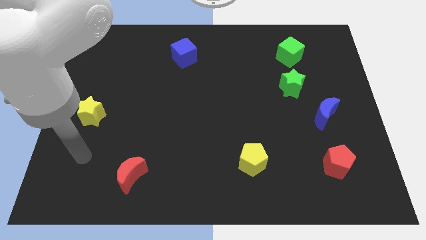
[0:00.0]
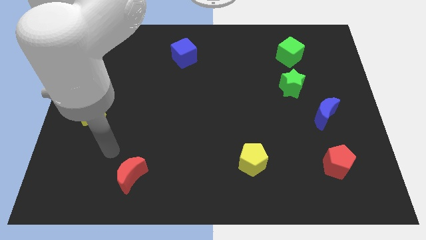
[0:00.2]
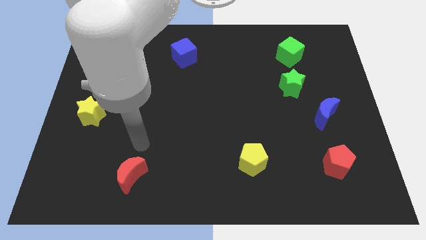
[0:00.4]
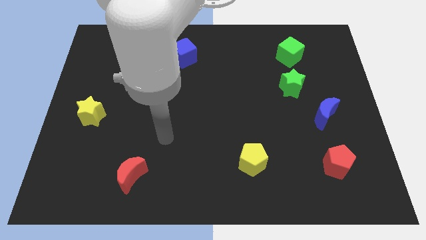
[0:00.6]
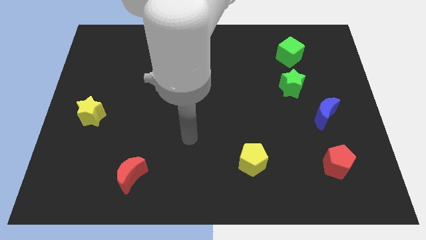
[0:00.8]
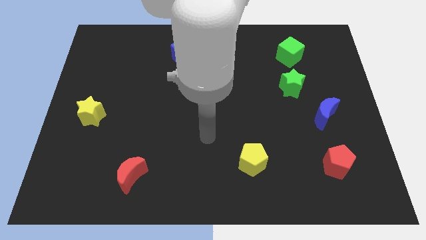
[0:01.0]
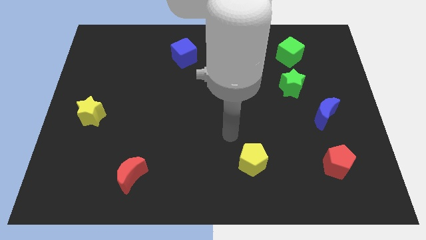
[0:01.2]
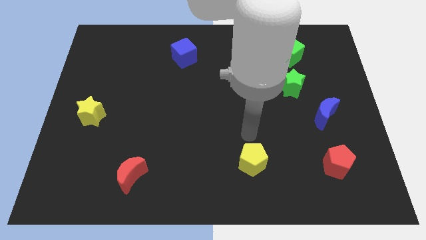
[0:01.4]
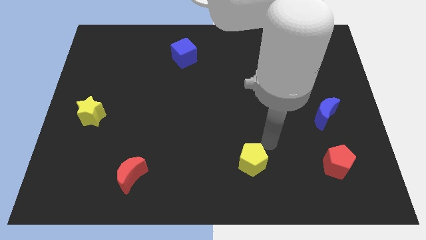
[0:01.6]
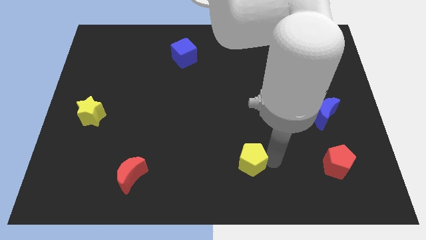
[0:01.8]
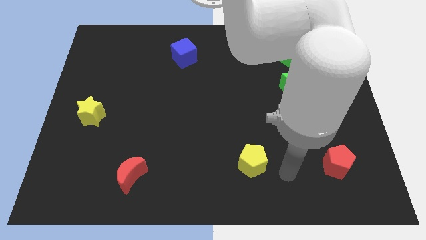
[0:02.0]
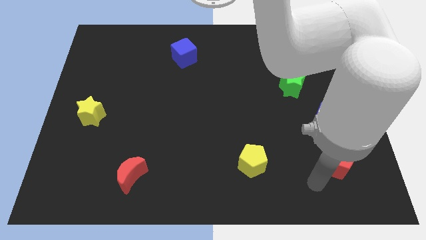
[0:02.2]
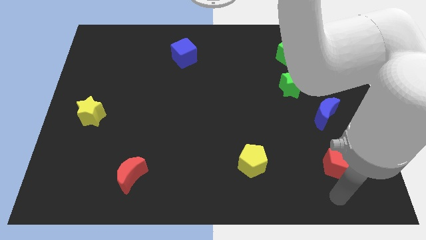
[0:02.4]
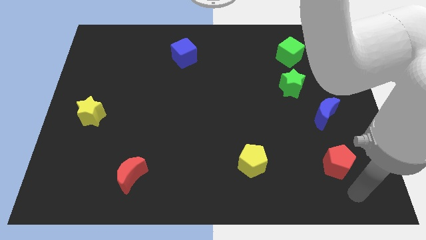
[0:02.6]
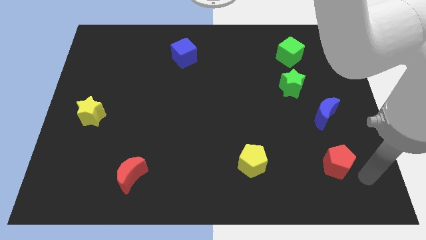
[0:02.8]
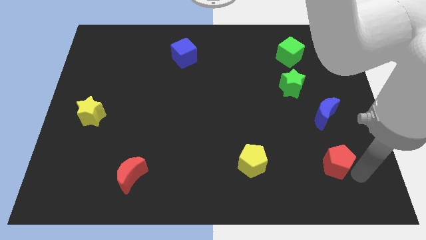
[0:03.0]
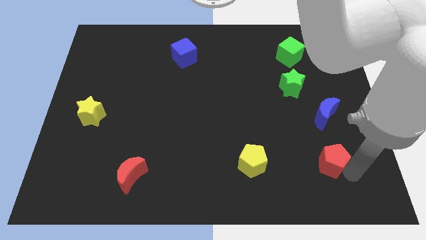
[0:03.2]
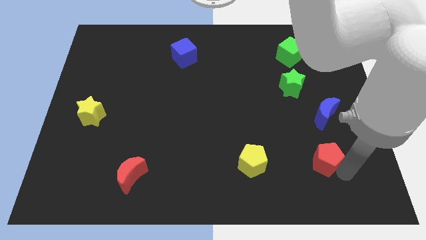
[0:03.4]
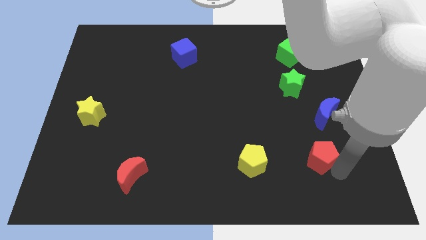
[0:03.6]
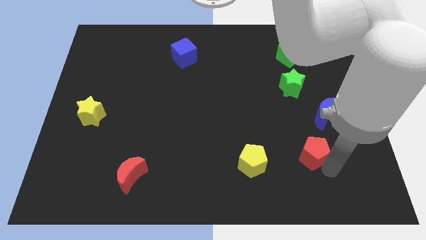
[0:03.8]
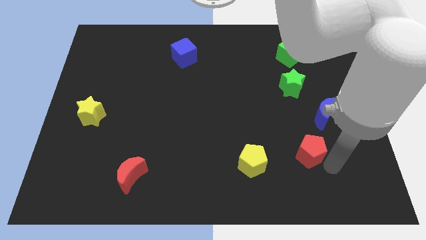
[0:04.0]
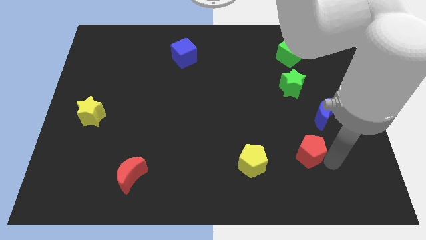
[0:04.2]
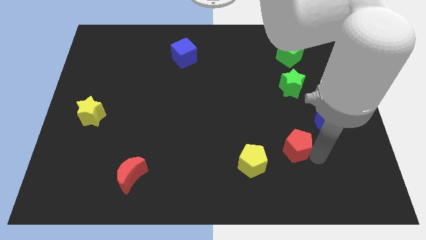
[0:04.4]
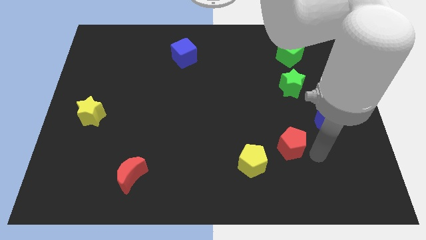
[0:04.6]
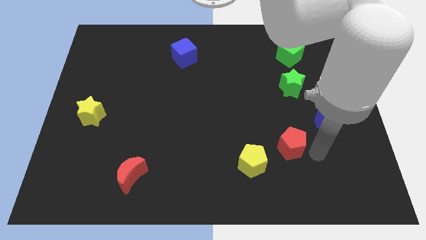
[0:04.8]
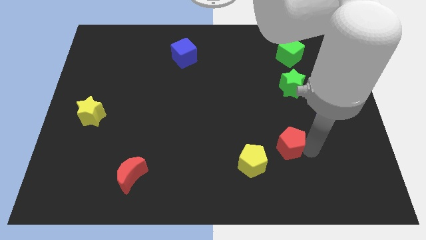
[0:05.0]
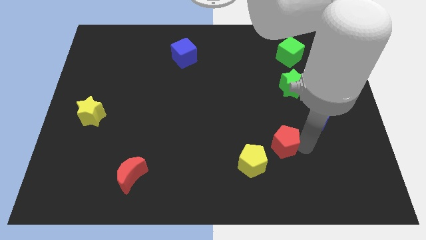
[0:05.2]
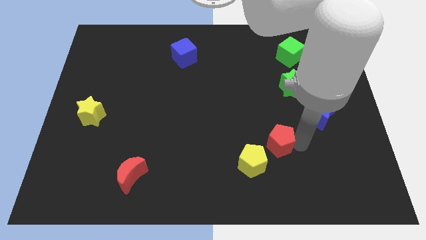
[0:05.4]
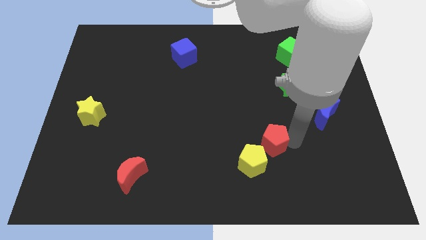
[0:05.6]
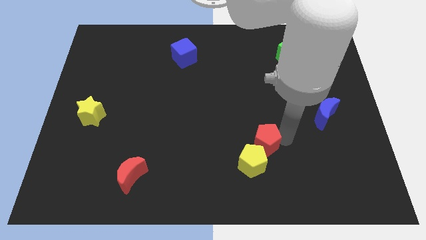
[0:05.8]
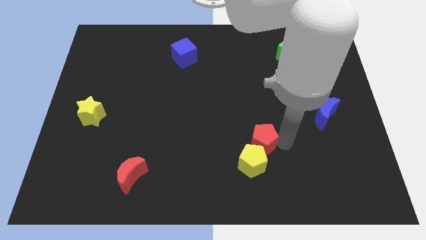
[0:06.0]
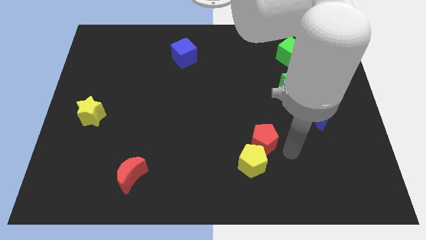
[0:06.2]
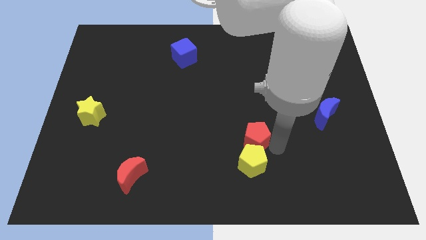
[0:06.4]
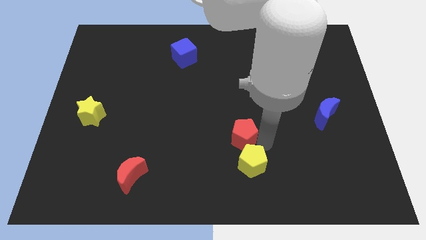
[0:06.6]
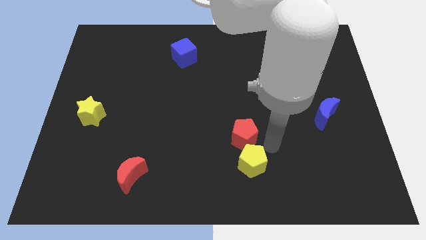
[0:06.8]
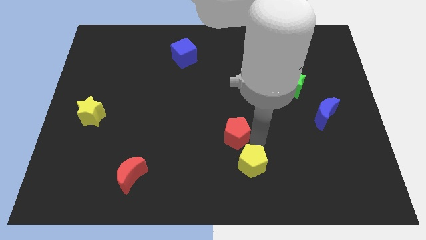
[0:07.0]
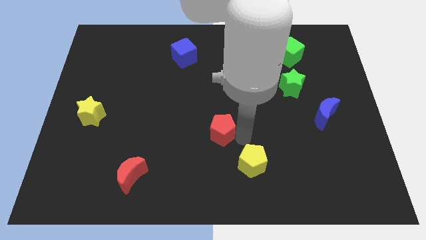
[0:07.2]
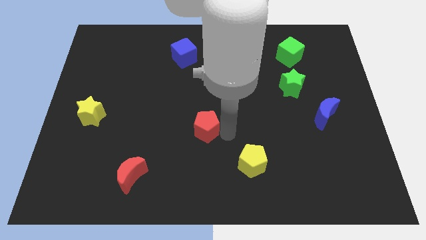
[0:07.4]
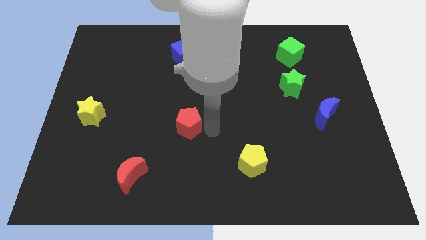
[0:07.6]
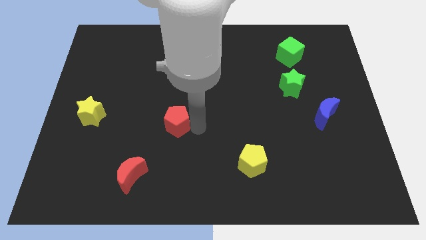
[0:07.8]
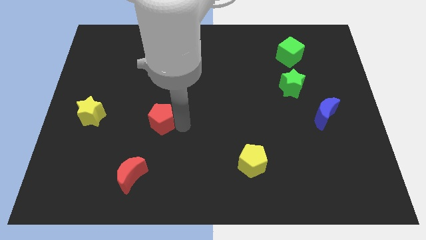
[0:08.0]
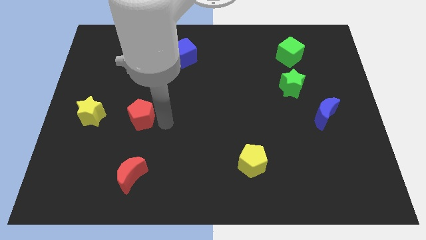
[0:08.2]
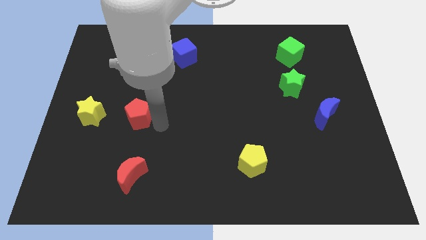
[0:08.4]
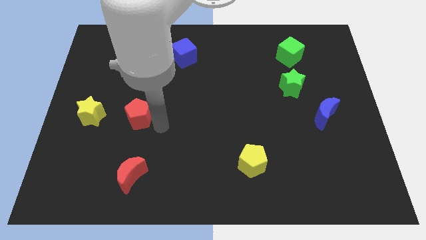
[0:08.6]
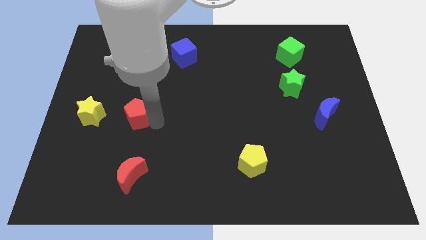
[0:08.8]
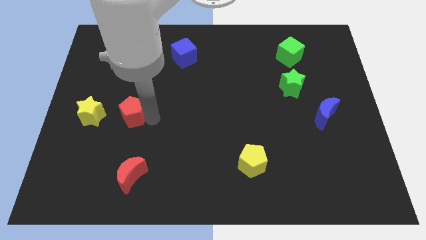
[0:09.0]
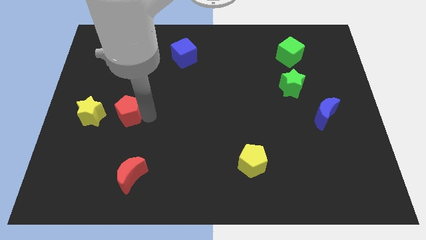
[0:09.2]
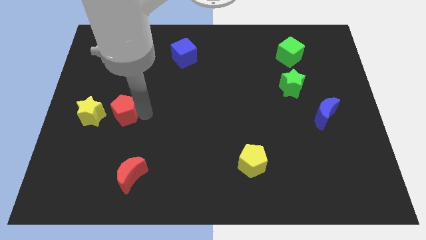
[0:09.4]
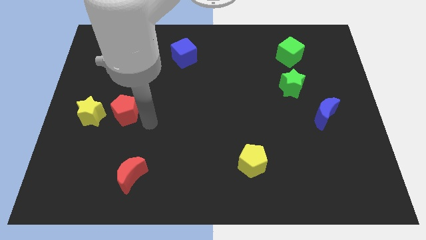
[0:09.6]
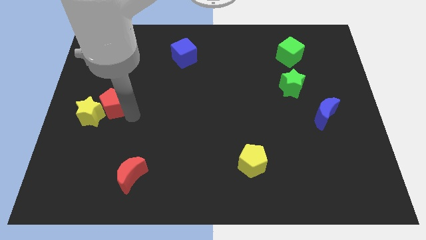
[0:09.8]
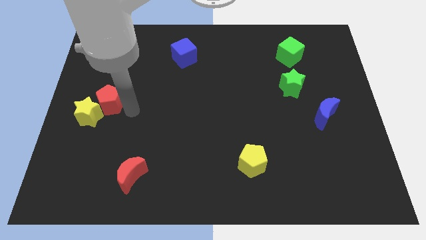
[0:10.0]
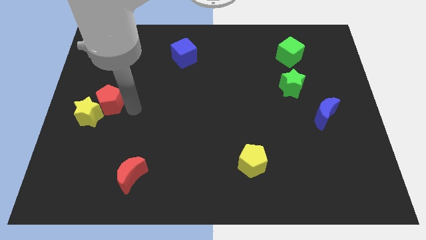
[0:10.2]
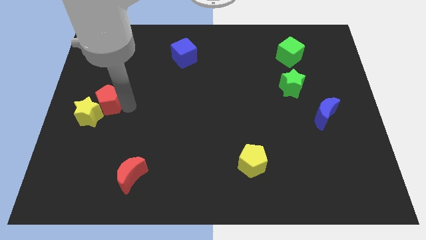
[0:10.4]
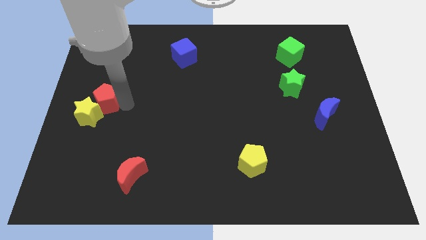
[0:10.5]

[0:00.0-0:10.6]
move the red pentagon to the center left

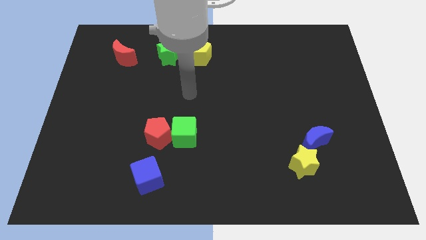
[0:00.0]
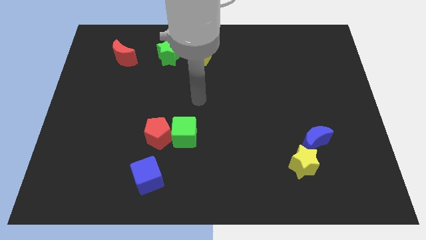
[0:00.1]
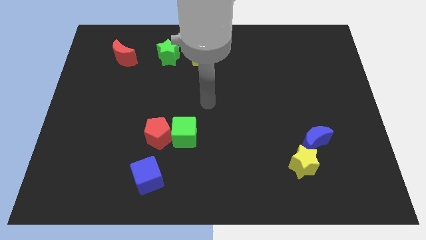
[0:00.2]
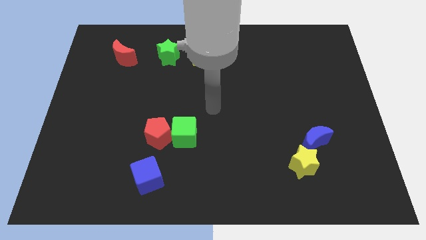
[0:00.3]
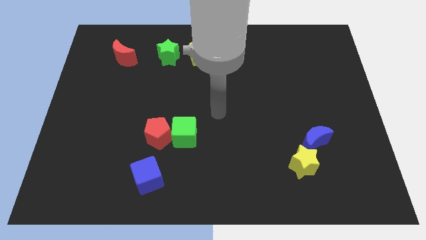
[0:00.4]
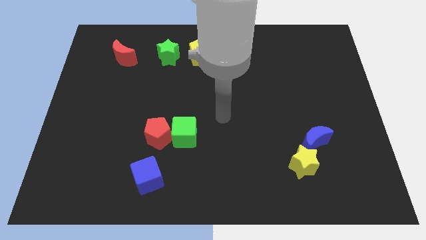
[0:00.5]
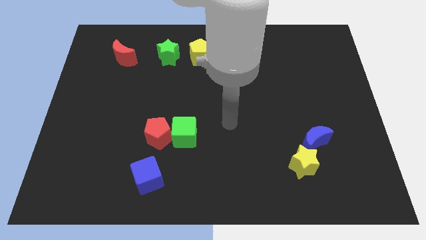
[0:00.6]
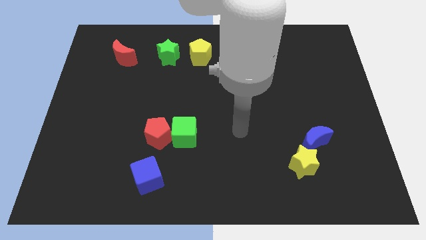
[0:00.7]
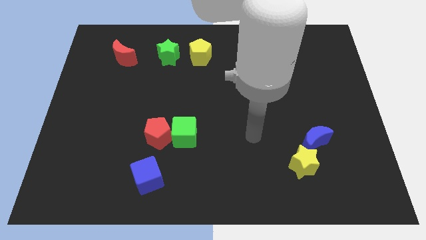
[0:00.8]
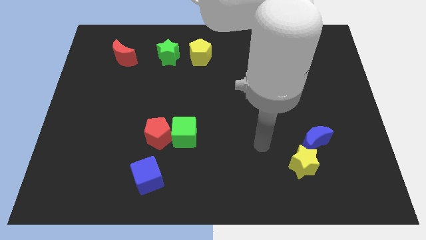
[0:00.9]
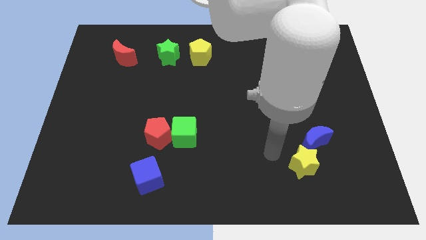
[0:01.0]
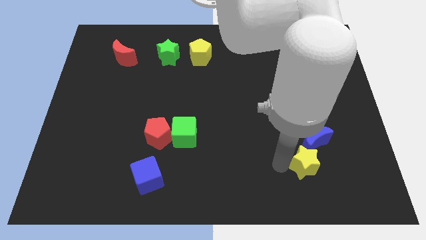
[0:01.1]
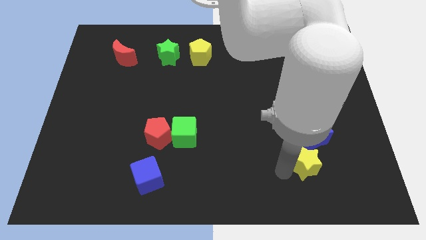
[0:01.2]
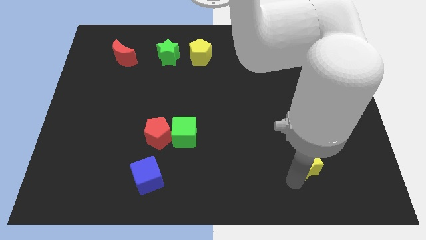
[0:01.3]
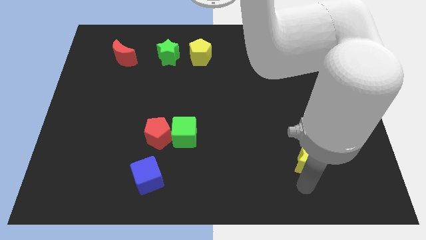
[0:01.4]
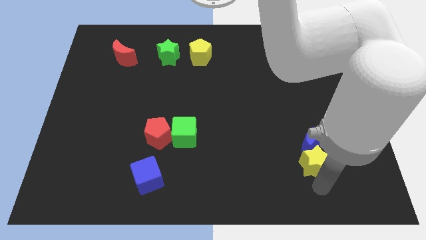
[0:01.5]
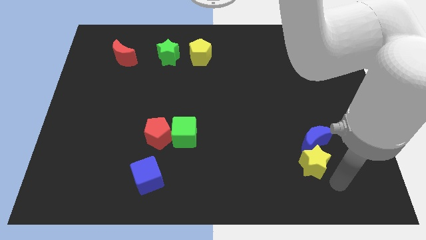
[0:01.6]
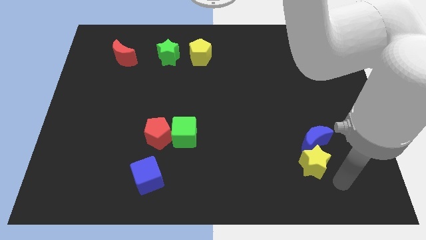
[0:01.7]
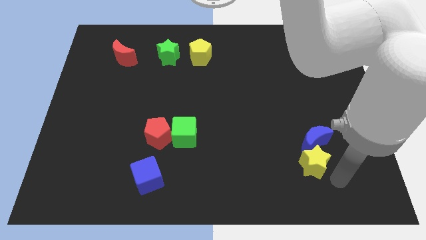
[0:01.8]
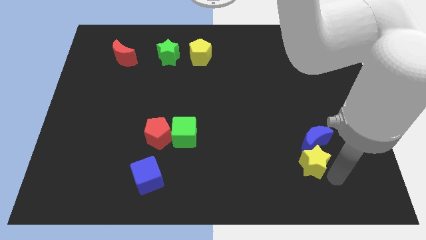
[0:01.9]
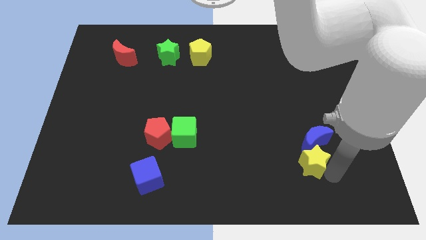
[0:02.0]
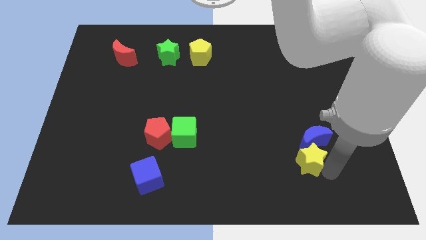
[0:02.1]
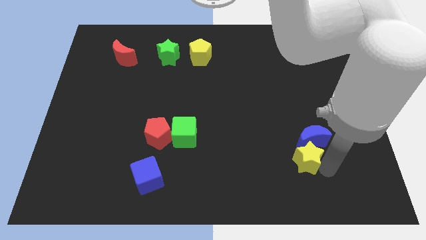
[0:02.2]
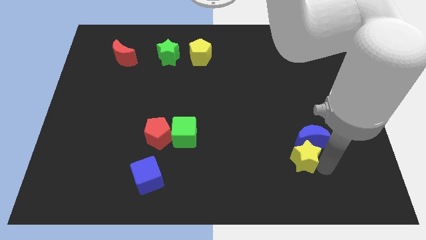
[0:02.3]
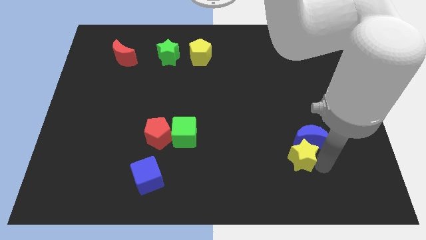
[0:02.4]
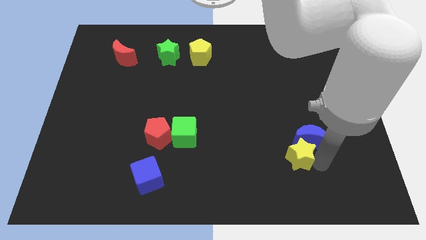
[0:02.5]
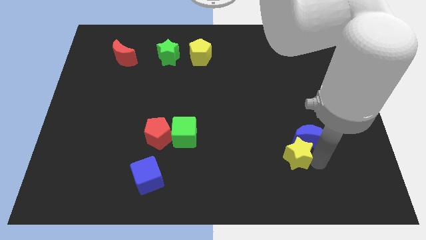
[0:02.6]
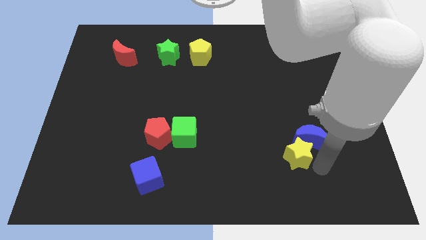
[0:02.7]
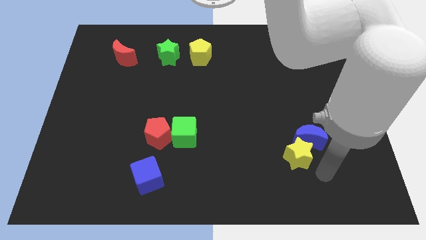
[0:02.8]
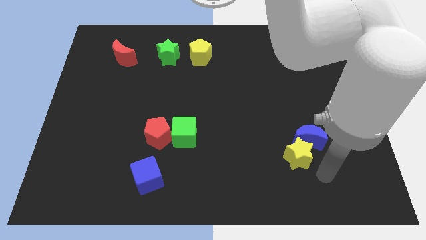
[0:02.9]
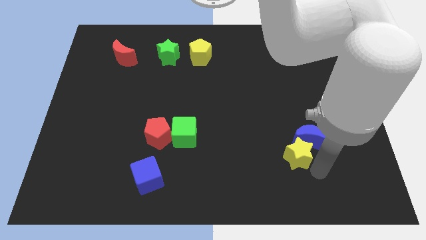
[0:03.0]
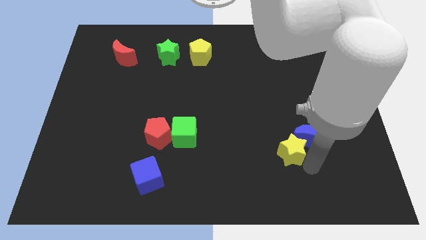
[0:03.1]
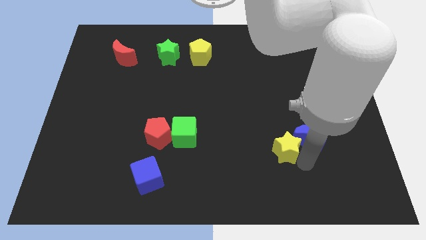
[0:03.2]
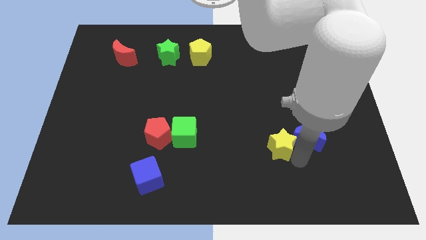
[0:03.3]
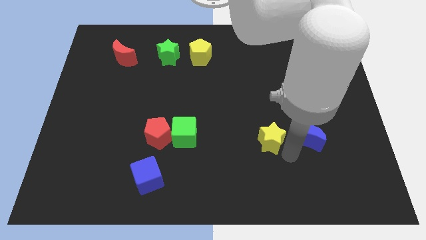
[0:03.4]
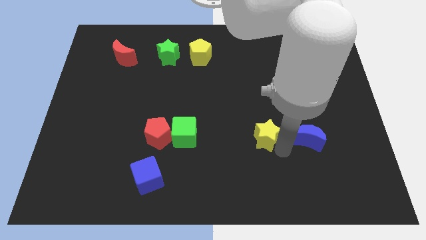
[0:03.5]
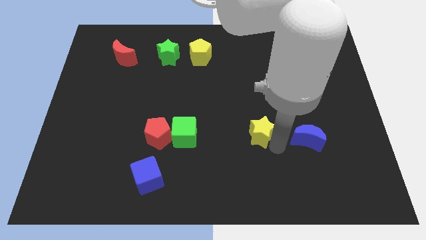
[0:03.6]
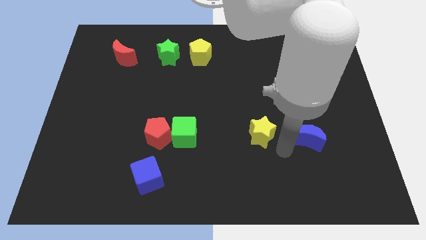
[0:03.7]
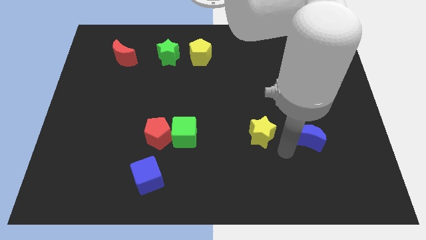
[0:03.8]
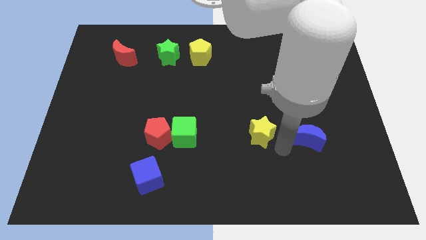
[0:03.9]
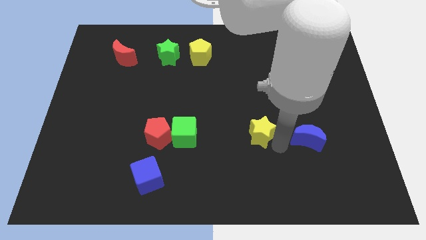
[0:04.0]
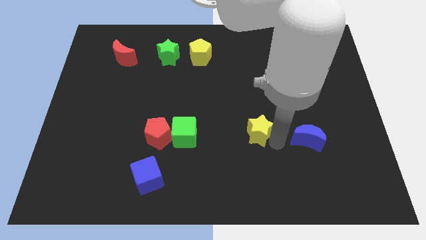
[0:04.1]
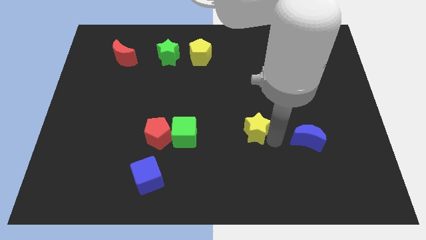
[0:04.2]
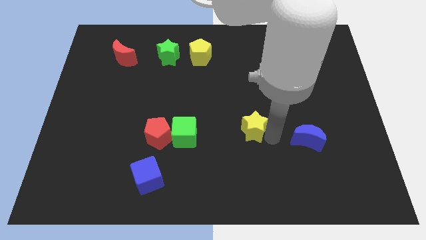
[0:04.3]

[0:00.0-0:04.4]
put the yellow star to the middle
